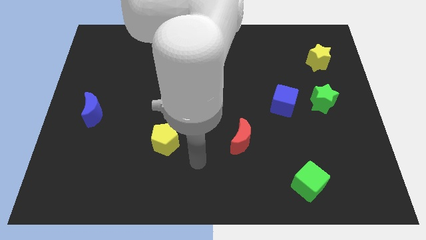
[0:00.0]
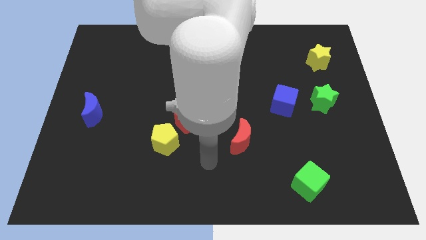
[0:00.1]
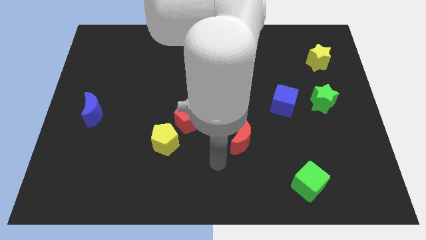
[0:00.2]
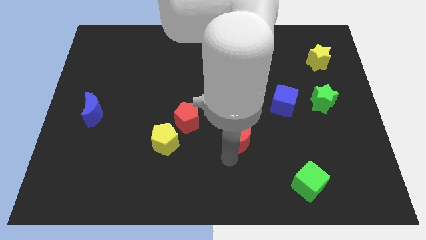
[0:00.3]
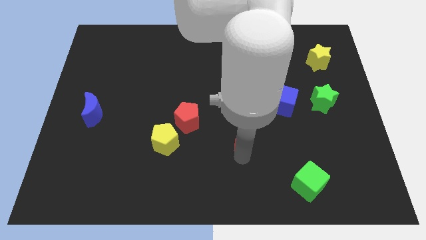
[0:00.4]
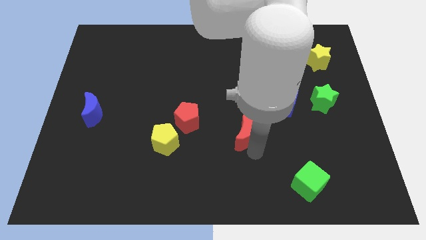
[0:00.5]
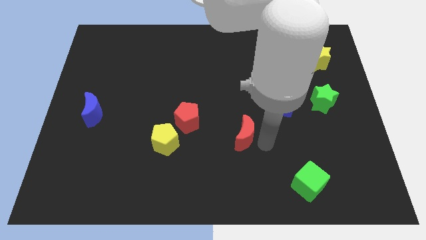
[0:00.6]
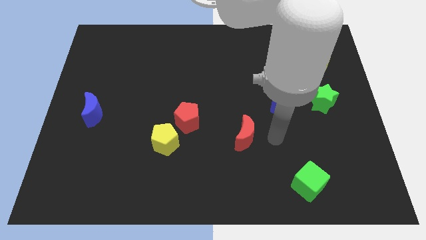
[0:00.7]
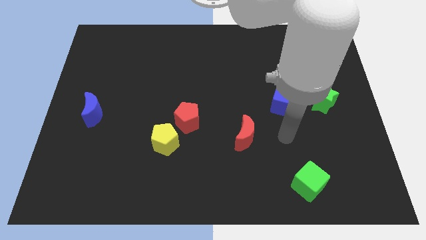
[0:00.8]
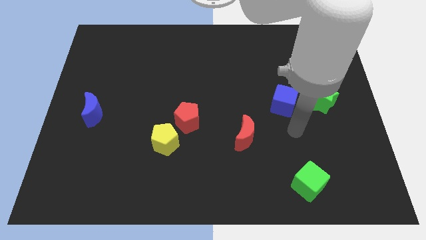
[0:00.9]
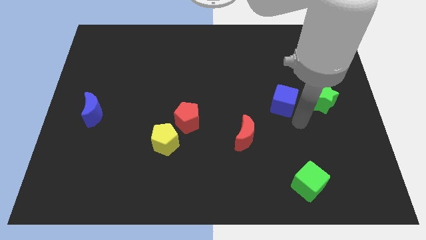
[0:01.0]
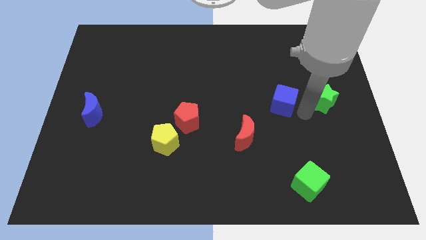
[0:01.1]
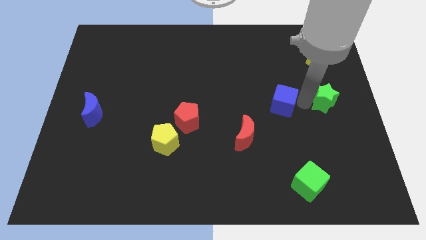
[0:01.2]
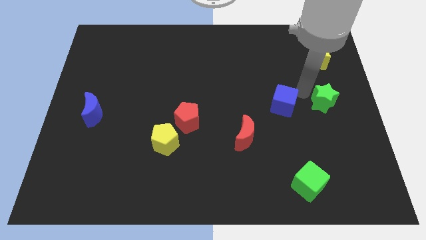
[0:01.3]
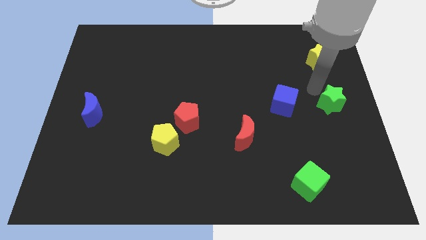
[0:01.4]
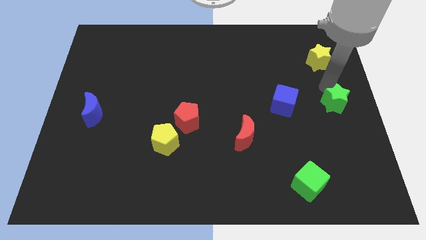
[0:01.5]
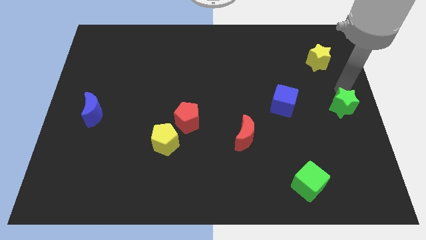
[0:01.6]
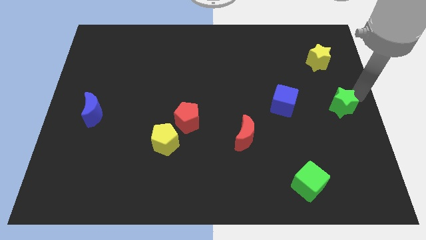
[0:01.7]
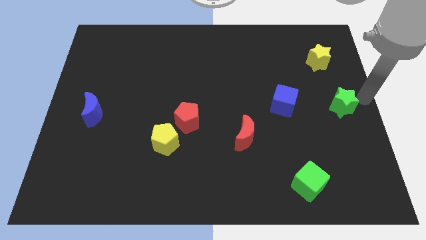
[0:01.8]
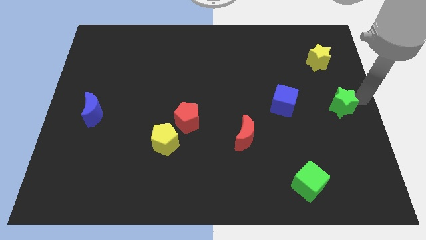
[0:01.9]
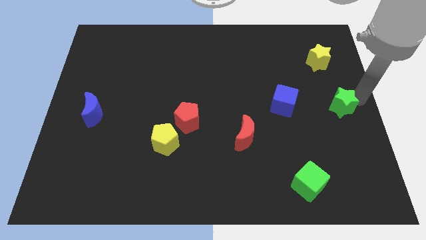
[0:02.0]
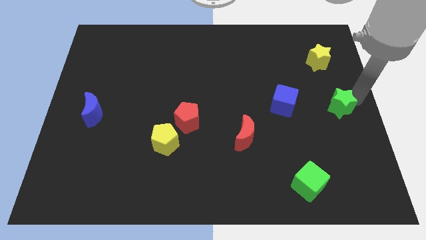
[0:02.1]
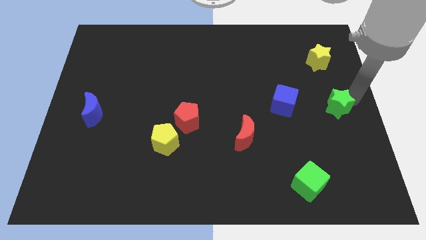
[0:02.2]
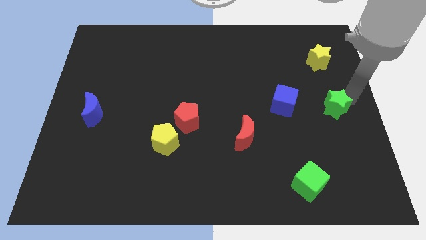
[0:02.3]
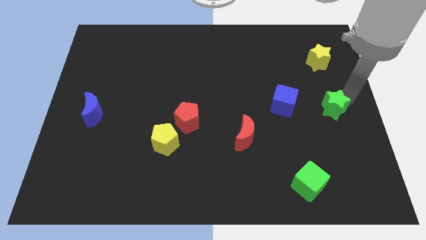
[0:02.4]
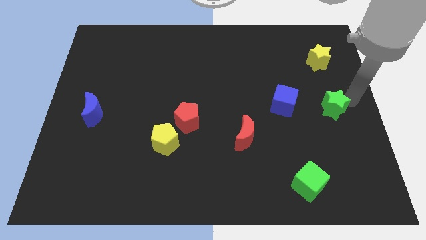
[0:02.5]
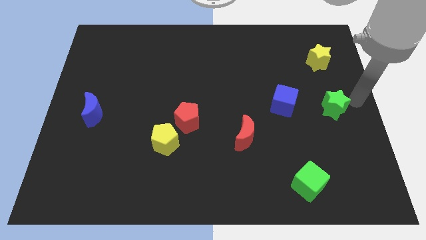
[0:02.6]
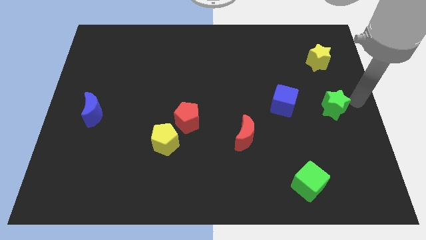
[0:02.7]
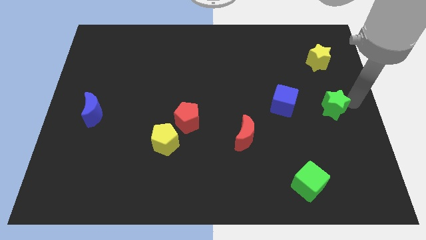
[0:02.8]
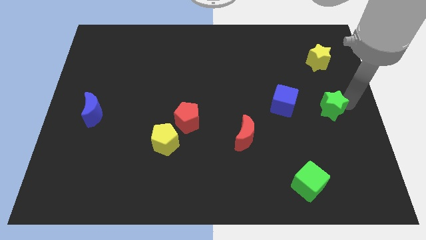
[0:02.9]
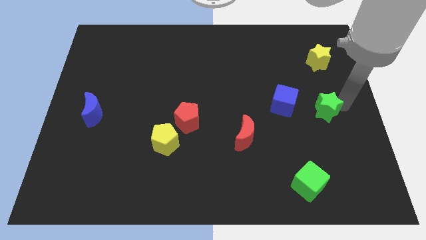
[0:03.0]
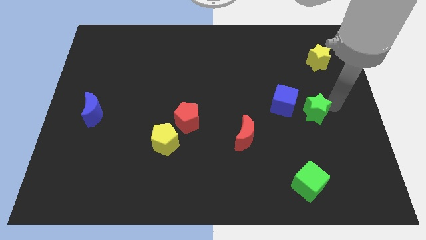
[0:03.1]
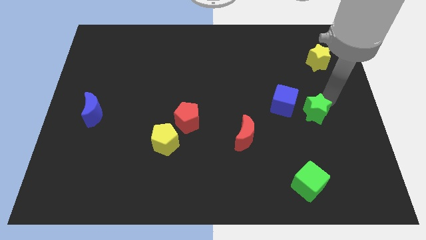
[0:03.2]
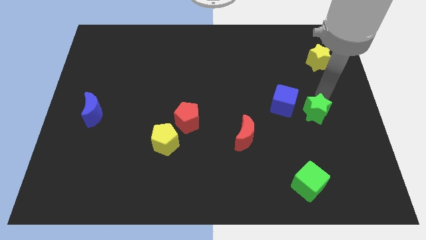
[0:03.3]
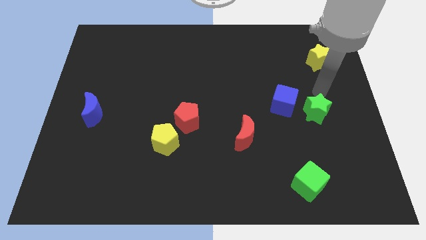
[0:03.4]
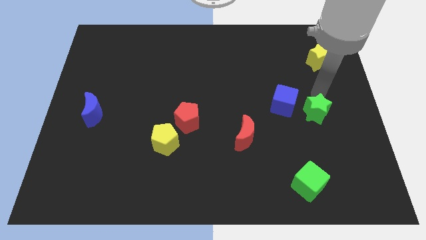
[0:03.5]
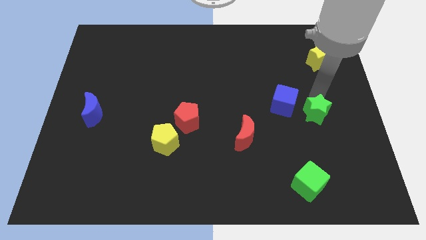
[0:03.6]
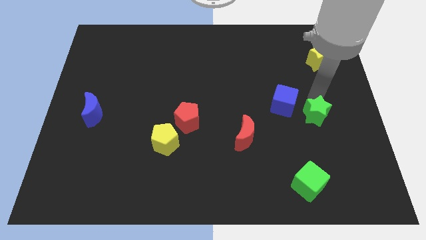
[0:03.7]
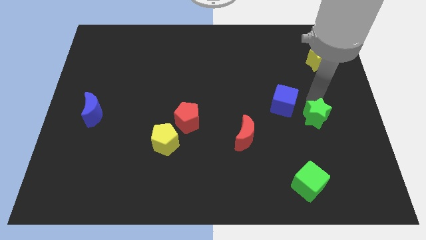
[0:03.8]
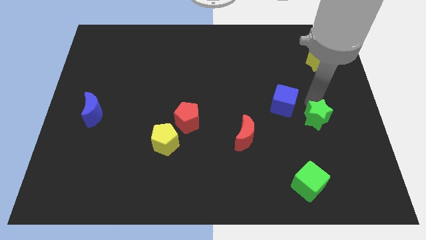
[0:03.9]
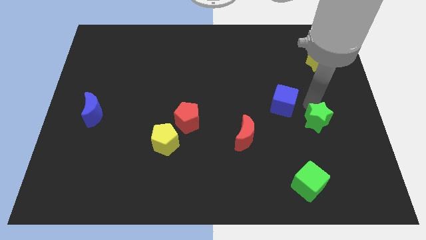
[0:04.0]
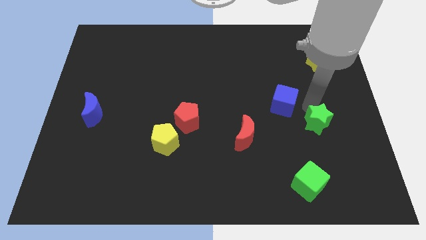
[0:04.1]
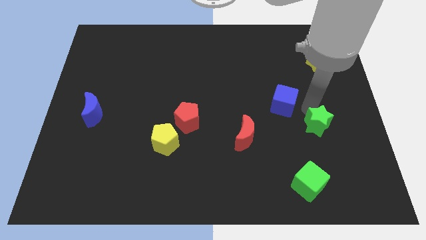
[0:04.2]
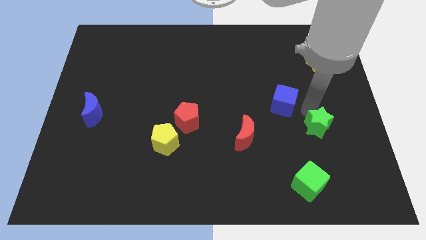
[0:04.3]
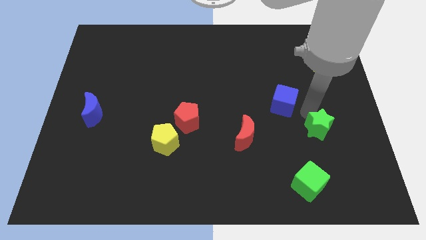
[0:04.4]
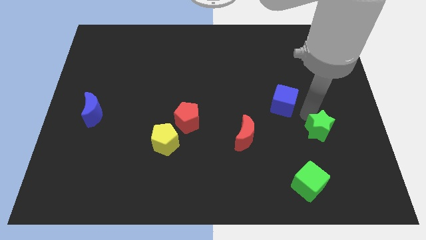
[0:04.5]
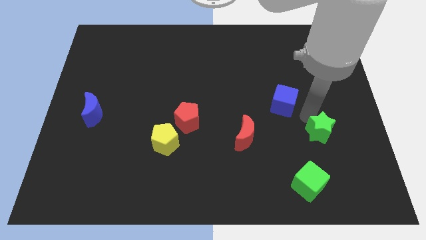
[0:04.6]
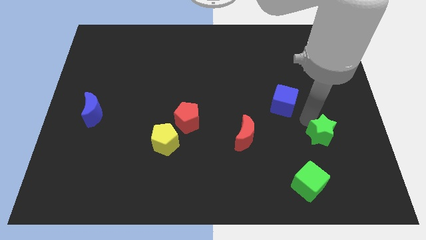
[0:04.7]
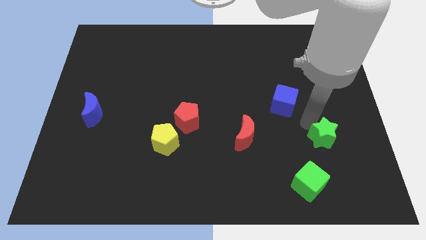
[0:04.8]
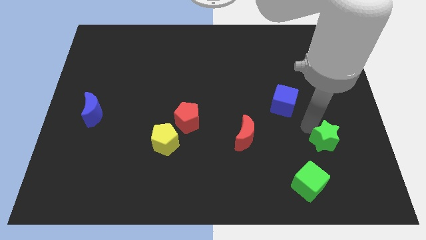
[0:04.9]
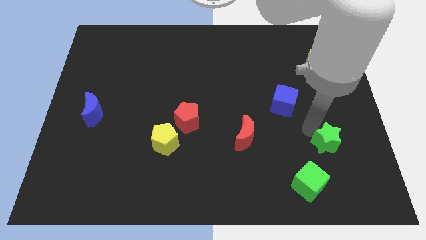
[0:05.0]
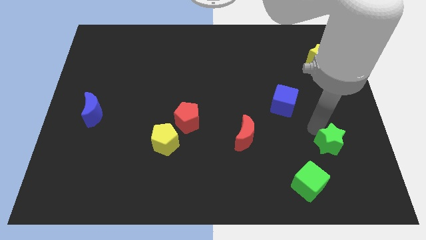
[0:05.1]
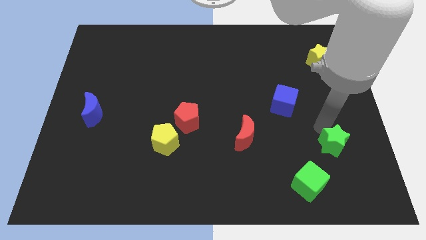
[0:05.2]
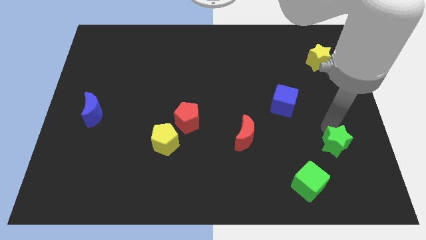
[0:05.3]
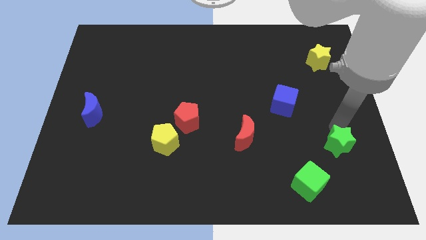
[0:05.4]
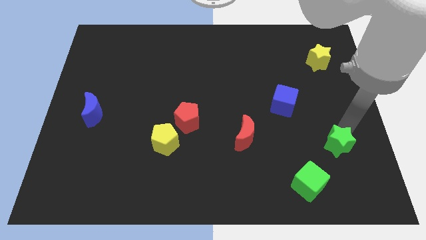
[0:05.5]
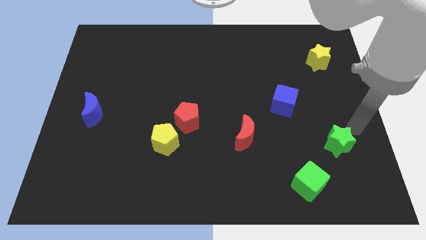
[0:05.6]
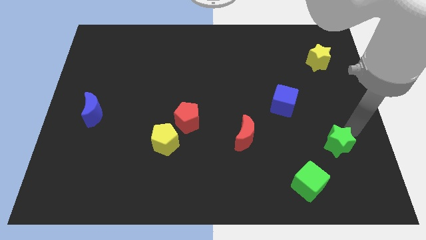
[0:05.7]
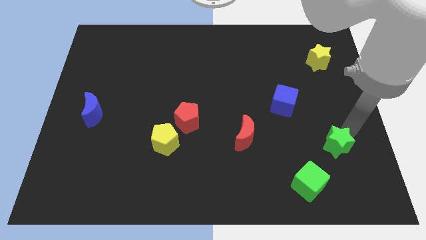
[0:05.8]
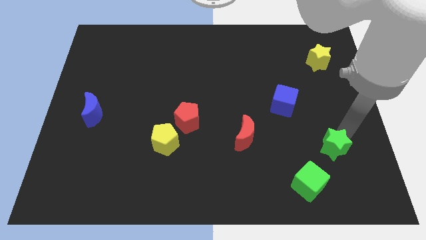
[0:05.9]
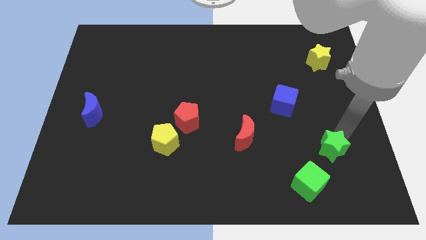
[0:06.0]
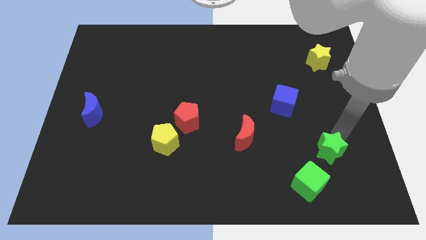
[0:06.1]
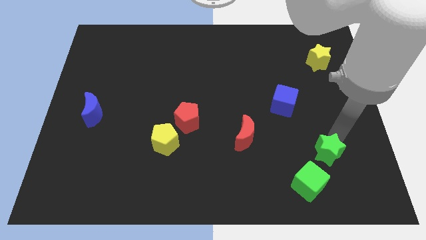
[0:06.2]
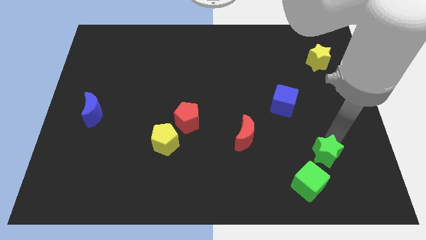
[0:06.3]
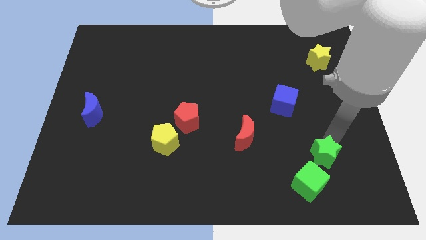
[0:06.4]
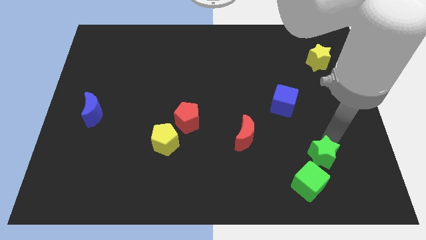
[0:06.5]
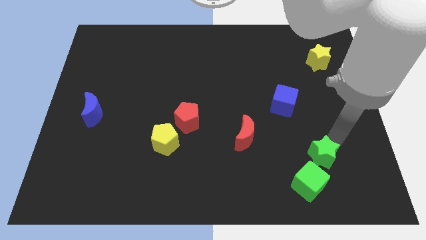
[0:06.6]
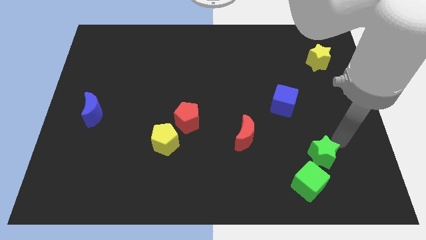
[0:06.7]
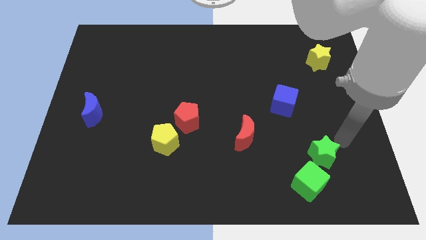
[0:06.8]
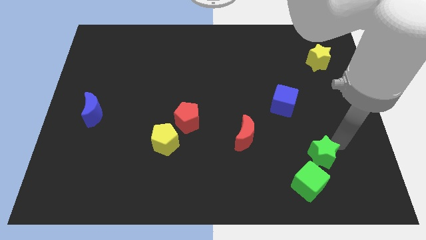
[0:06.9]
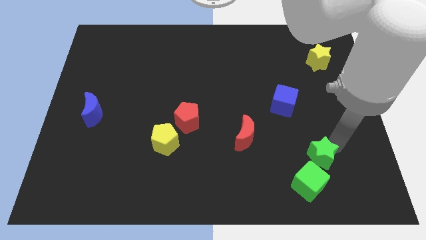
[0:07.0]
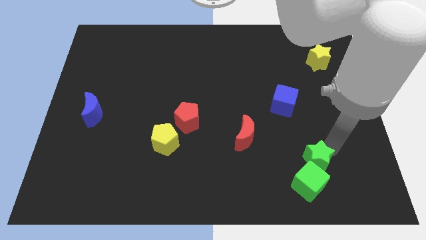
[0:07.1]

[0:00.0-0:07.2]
move the green star to the green cube

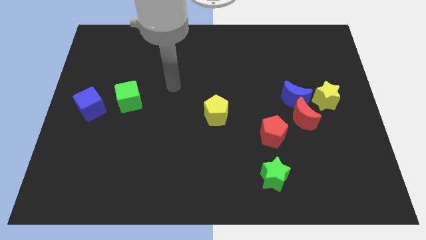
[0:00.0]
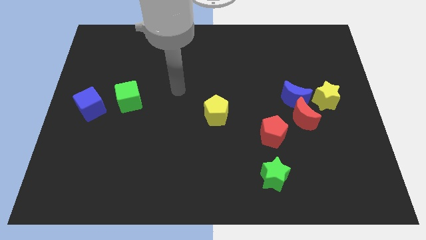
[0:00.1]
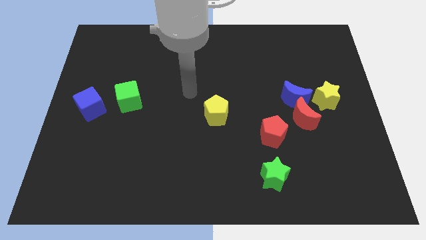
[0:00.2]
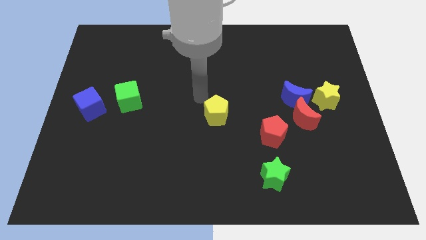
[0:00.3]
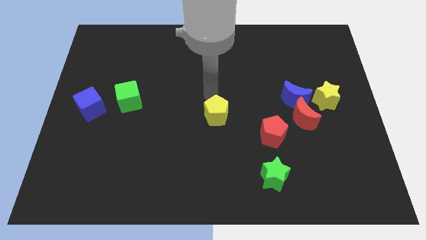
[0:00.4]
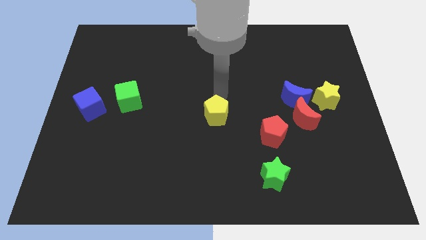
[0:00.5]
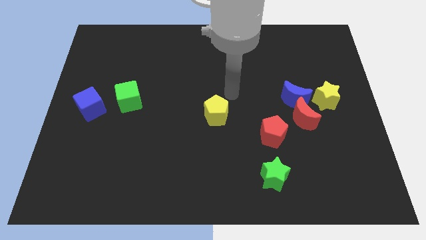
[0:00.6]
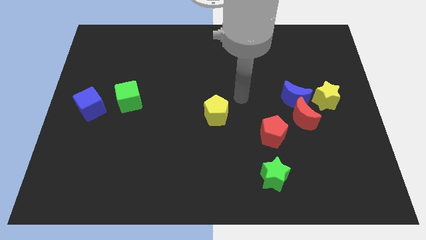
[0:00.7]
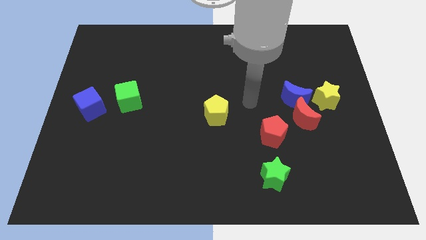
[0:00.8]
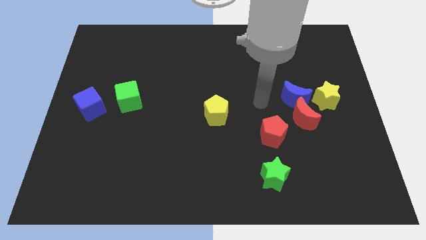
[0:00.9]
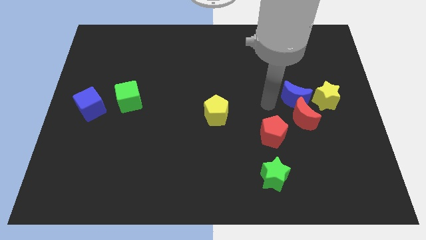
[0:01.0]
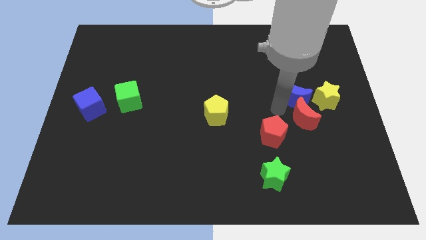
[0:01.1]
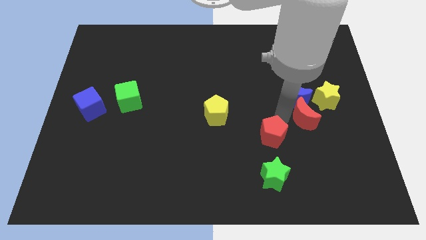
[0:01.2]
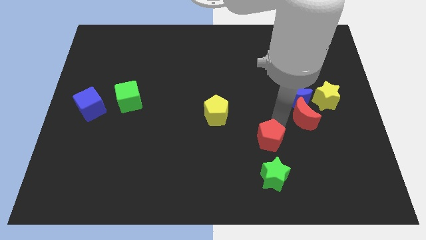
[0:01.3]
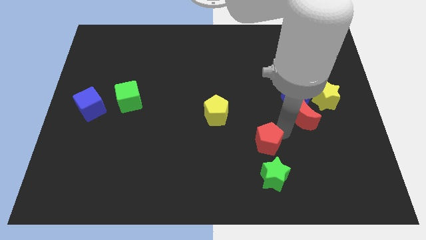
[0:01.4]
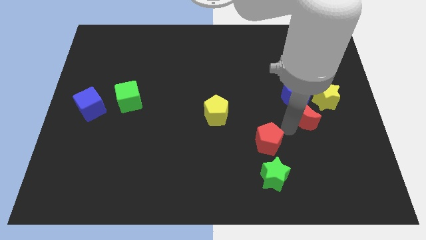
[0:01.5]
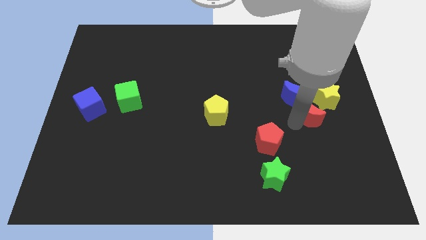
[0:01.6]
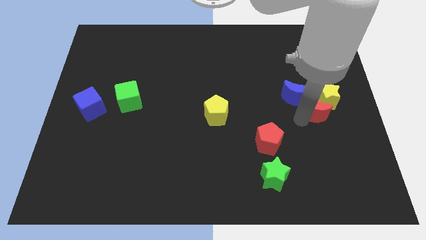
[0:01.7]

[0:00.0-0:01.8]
slide the red moon next to the yellow star
